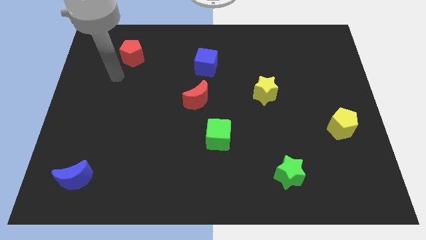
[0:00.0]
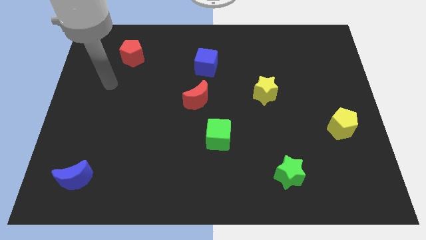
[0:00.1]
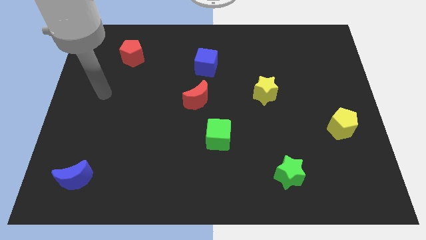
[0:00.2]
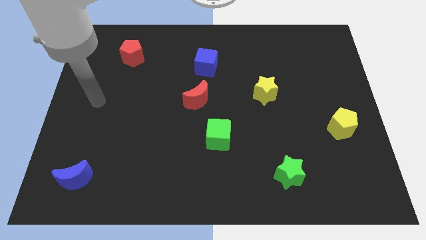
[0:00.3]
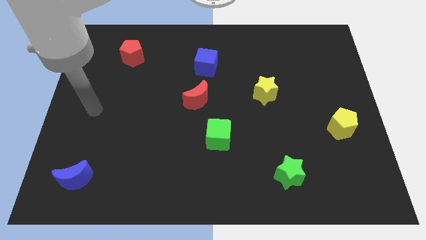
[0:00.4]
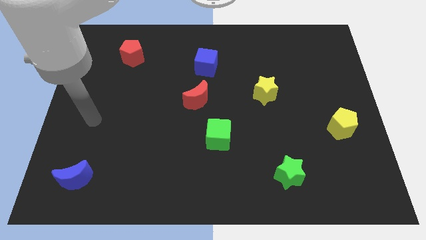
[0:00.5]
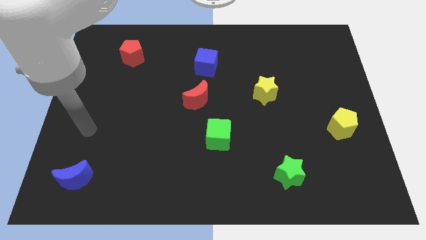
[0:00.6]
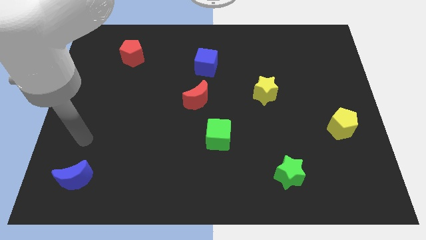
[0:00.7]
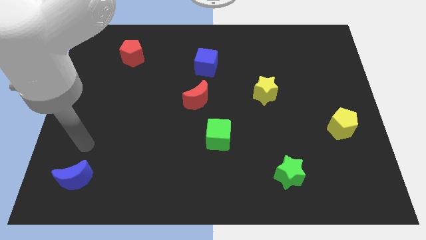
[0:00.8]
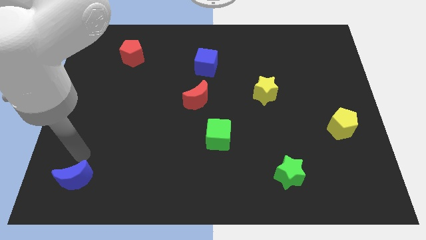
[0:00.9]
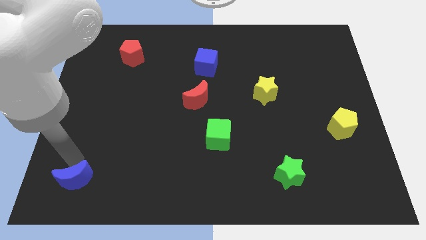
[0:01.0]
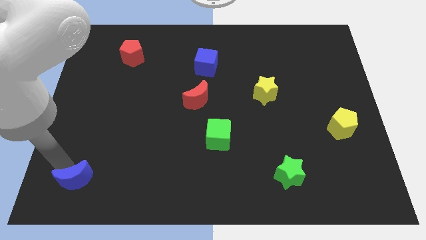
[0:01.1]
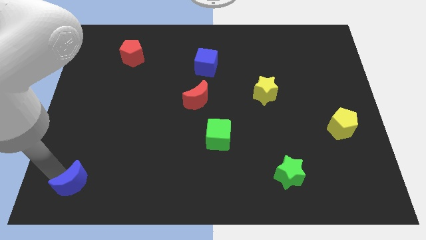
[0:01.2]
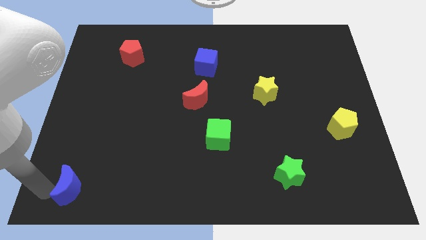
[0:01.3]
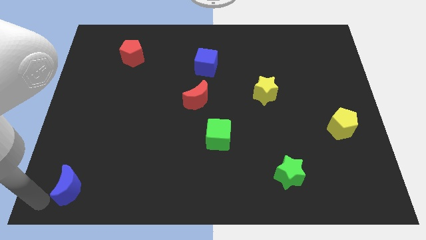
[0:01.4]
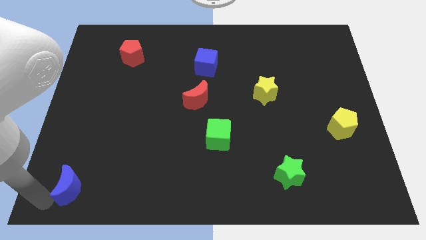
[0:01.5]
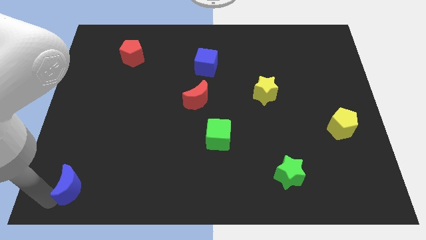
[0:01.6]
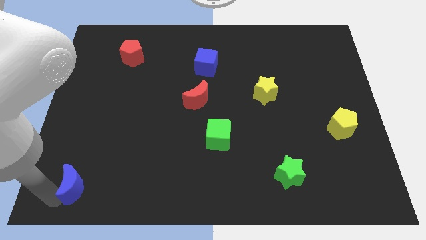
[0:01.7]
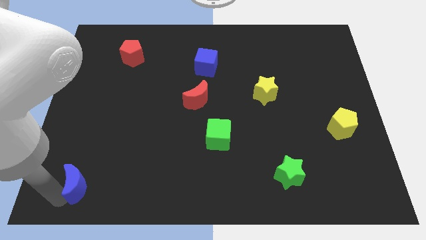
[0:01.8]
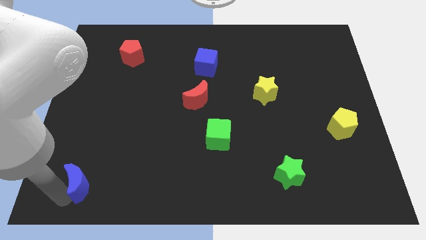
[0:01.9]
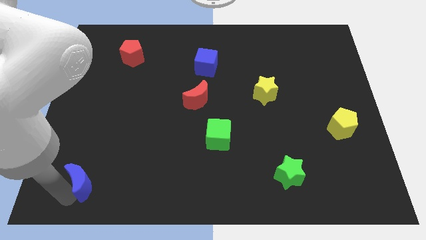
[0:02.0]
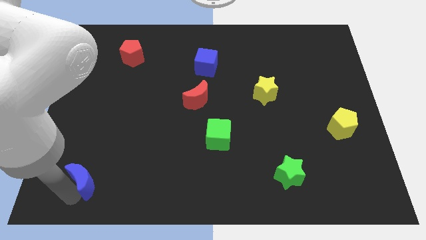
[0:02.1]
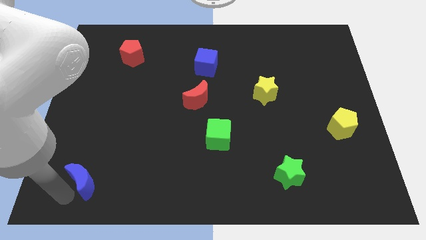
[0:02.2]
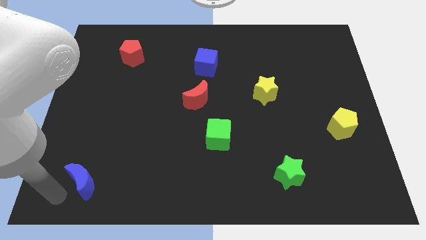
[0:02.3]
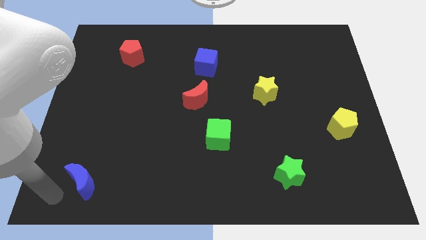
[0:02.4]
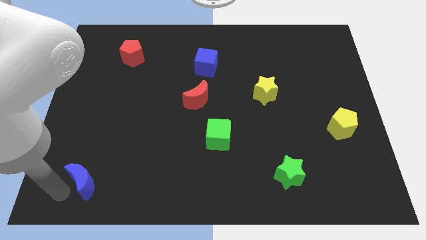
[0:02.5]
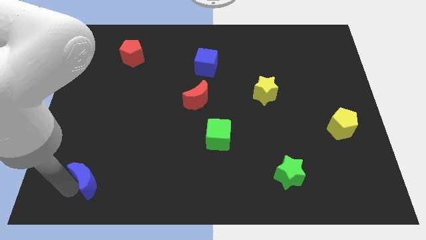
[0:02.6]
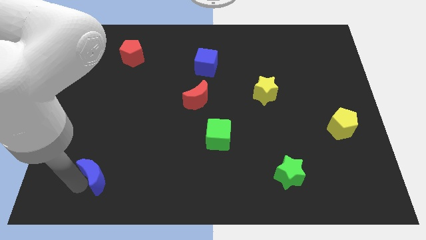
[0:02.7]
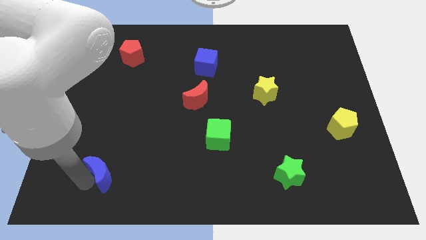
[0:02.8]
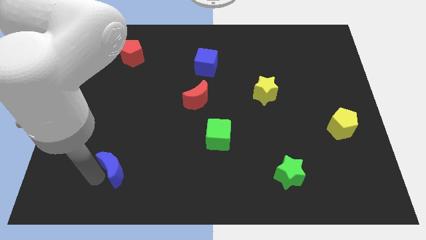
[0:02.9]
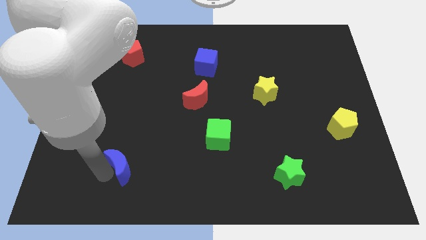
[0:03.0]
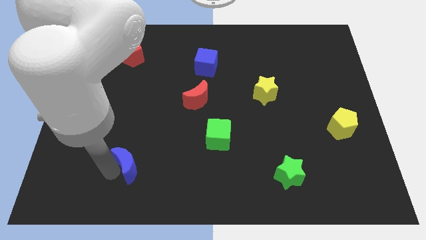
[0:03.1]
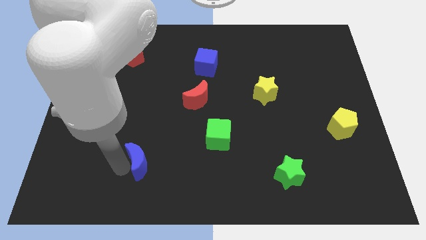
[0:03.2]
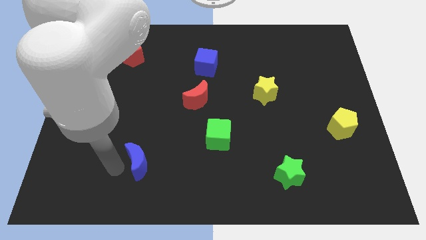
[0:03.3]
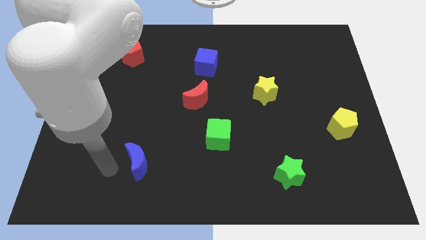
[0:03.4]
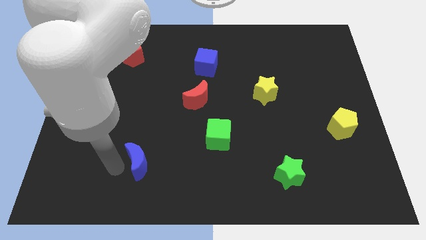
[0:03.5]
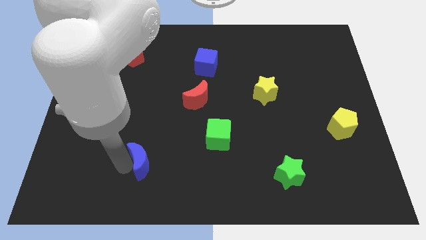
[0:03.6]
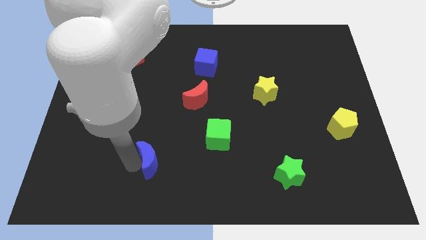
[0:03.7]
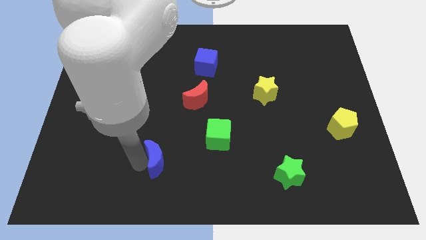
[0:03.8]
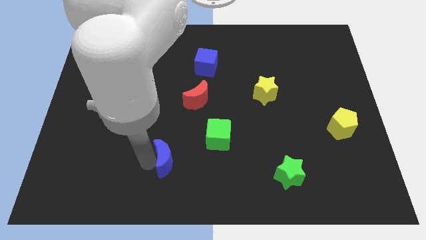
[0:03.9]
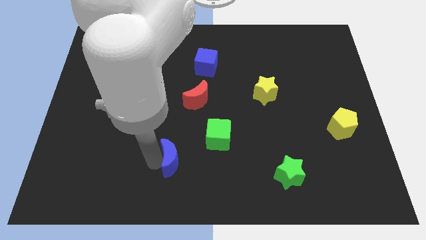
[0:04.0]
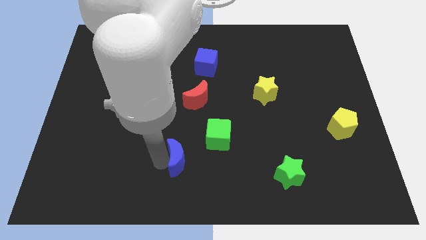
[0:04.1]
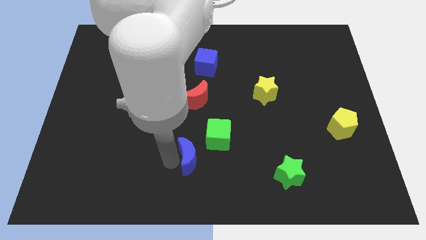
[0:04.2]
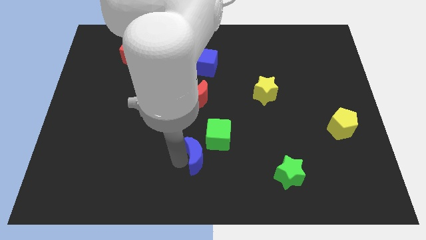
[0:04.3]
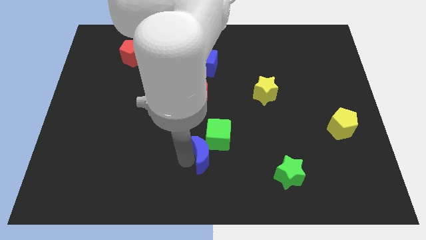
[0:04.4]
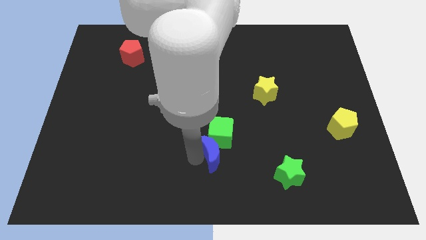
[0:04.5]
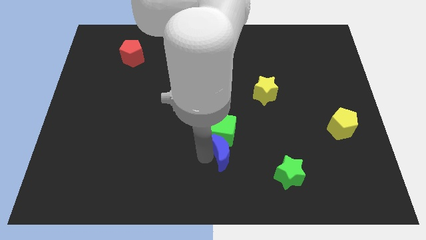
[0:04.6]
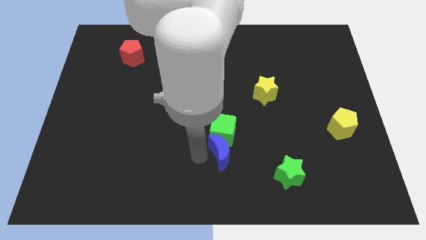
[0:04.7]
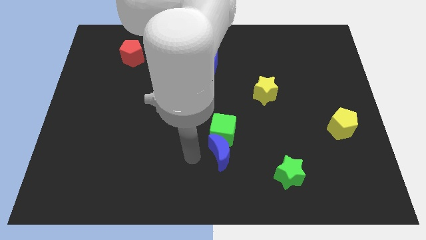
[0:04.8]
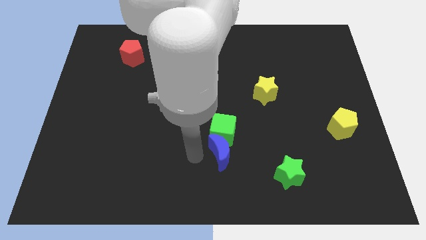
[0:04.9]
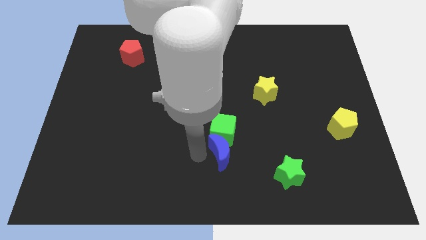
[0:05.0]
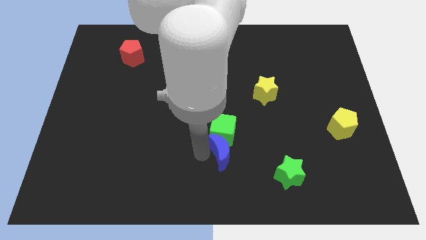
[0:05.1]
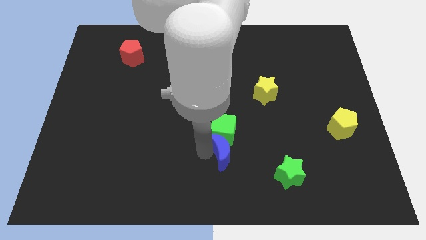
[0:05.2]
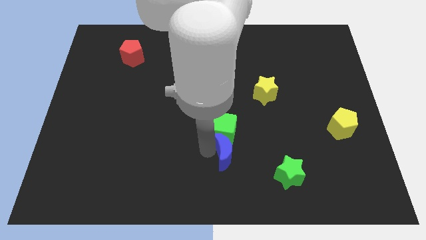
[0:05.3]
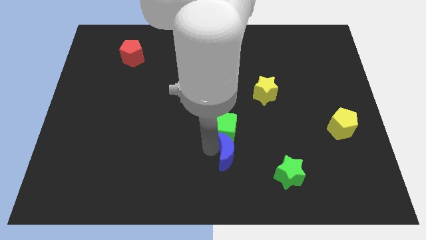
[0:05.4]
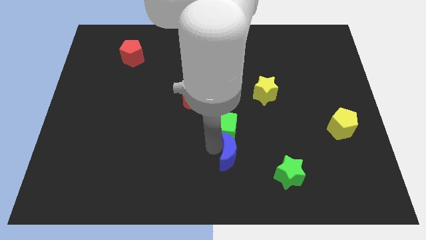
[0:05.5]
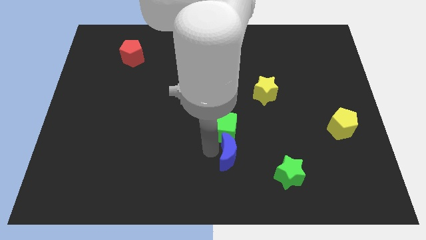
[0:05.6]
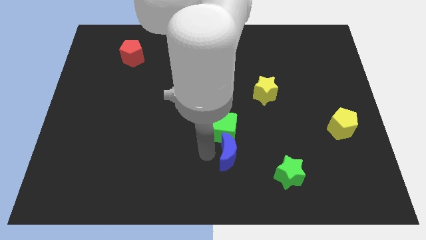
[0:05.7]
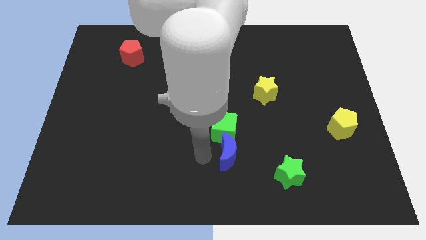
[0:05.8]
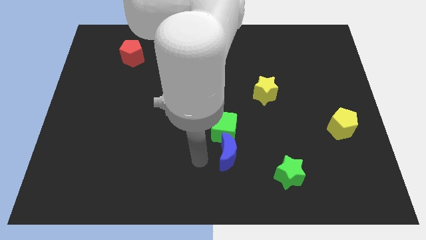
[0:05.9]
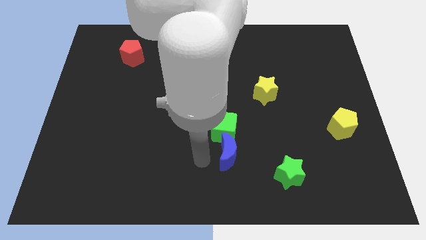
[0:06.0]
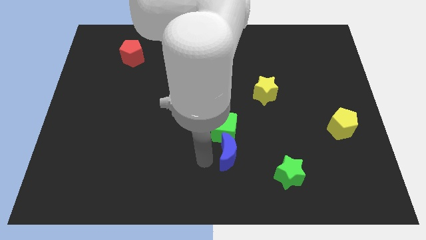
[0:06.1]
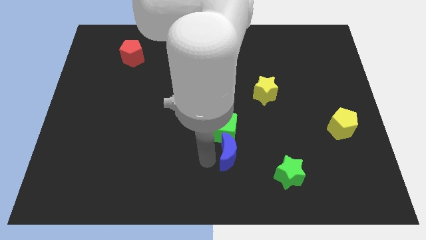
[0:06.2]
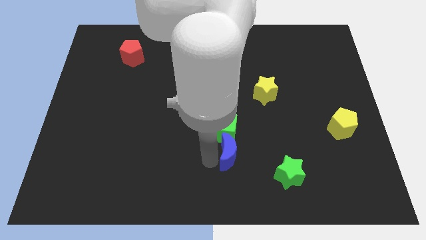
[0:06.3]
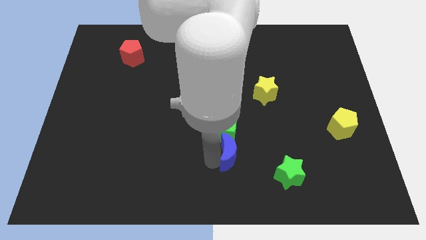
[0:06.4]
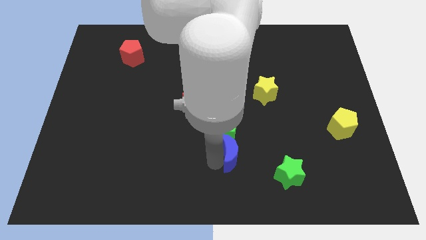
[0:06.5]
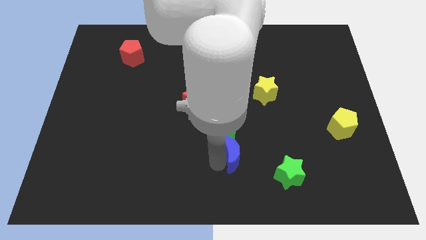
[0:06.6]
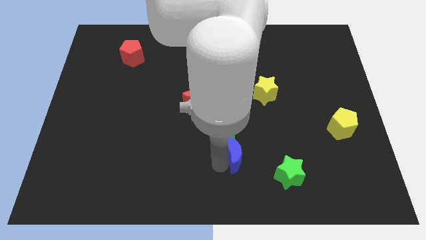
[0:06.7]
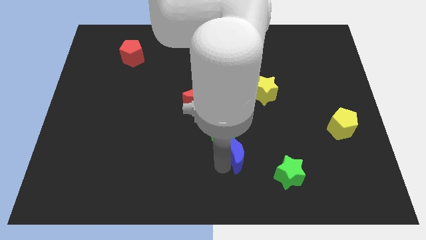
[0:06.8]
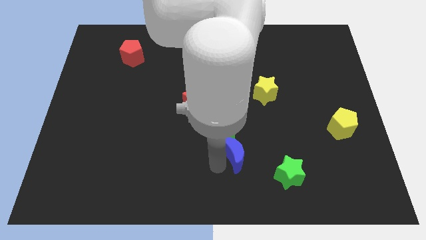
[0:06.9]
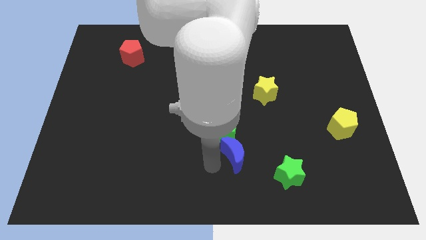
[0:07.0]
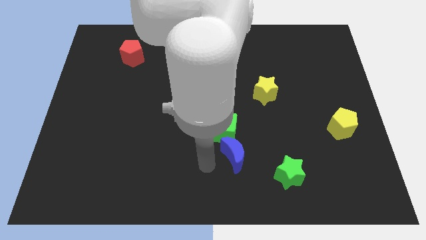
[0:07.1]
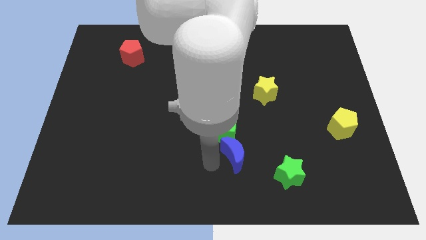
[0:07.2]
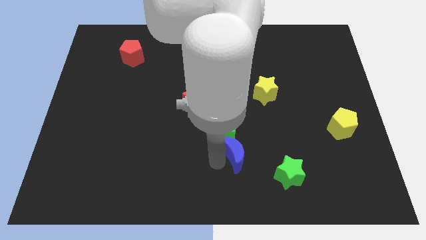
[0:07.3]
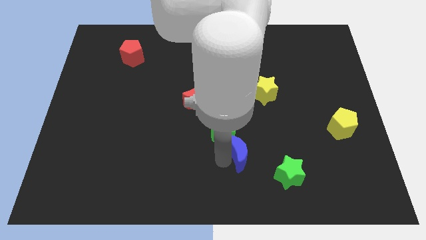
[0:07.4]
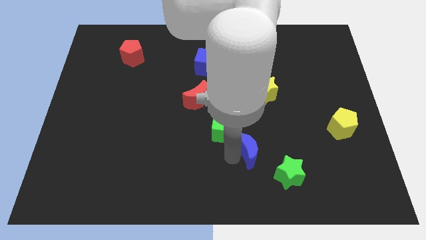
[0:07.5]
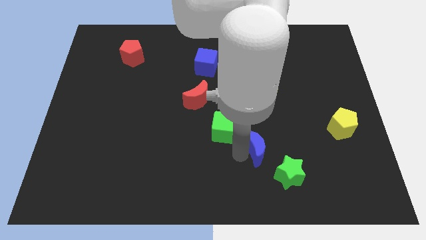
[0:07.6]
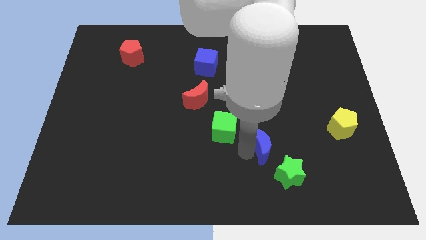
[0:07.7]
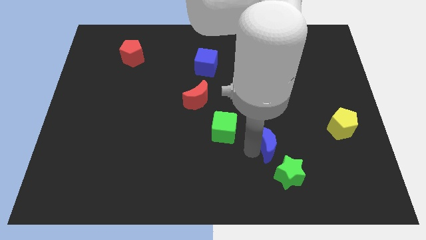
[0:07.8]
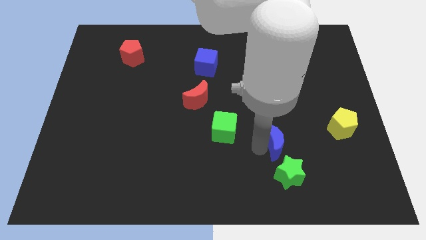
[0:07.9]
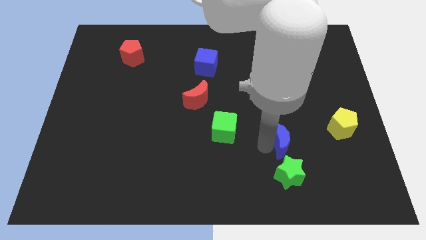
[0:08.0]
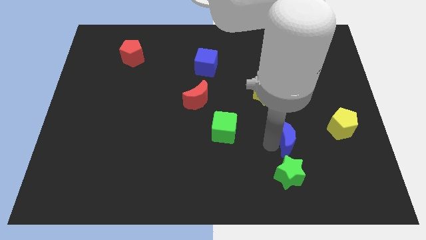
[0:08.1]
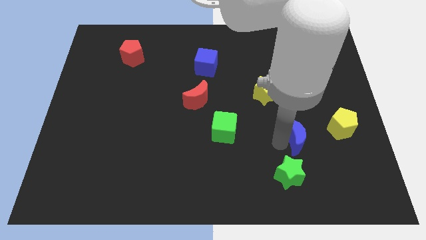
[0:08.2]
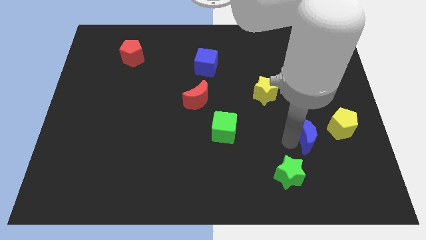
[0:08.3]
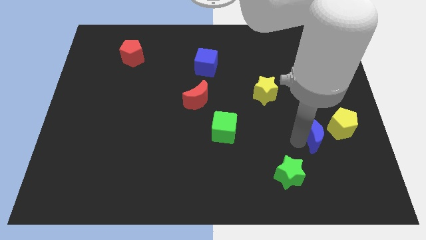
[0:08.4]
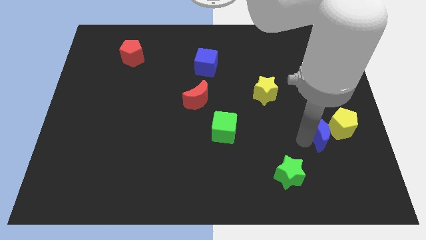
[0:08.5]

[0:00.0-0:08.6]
put the blue moon next to the yellow pentagon
